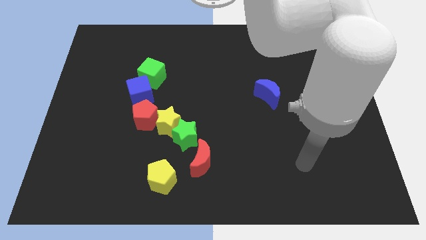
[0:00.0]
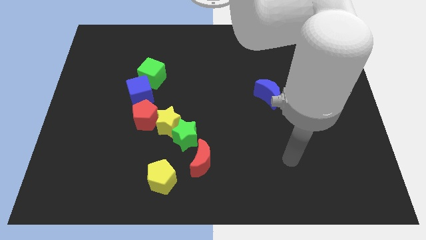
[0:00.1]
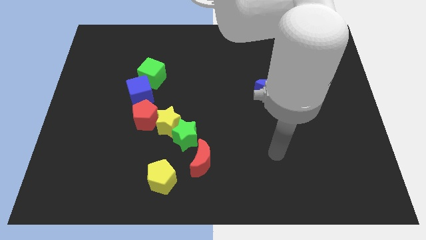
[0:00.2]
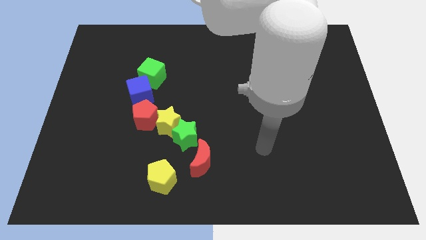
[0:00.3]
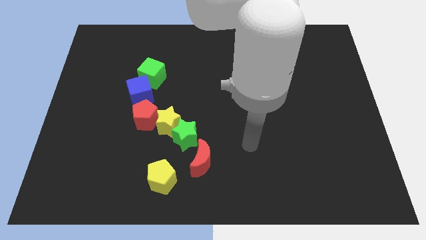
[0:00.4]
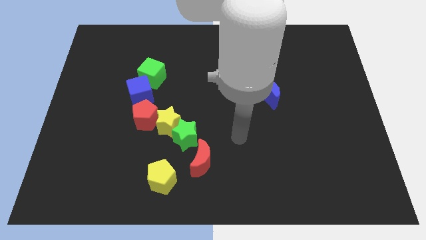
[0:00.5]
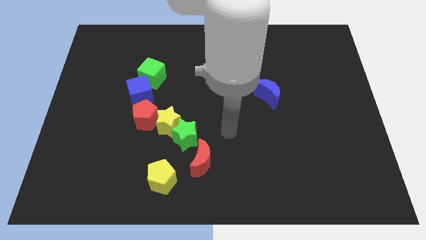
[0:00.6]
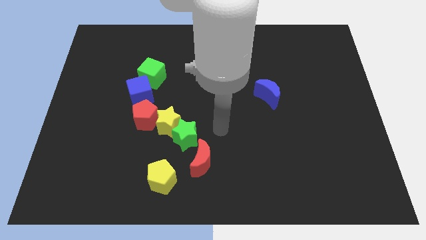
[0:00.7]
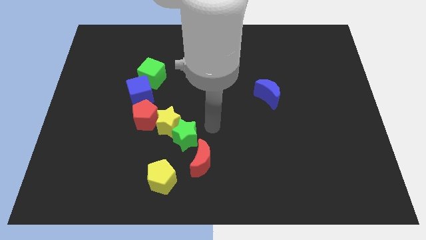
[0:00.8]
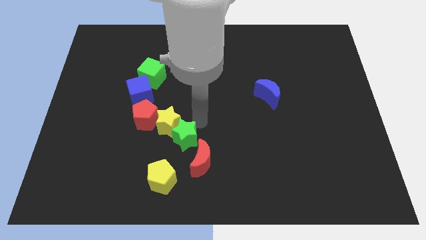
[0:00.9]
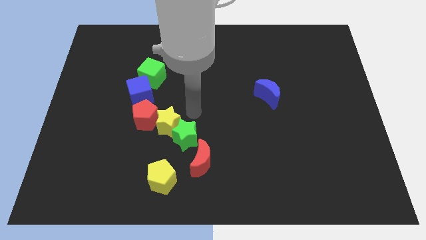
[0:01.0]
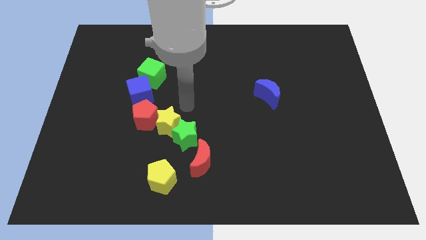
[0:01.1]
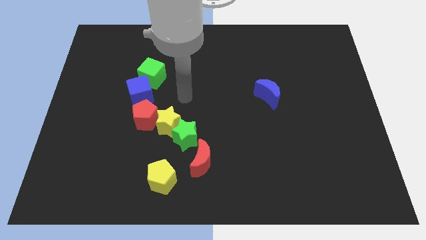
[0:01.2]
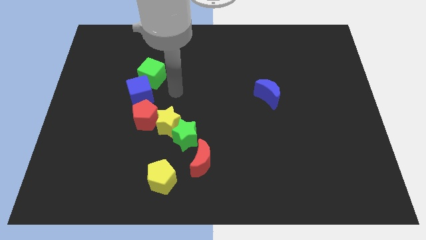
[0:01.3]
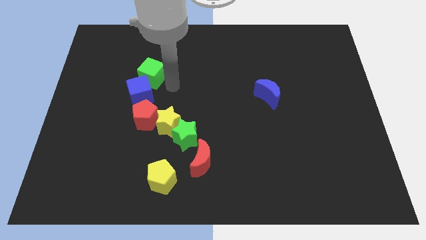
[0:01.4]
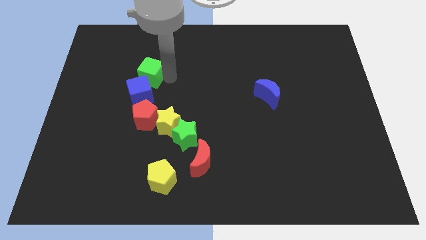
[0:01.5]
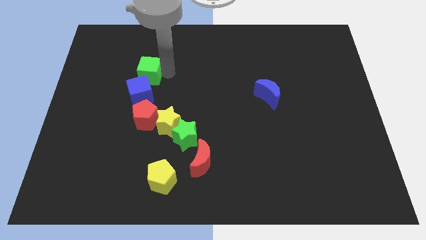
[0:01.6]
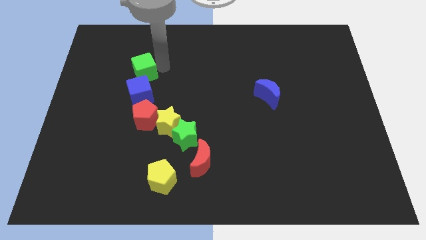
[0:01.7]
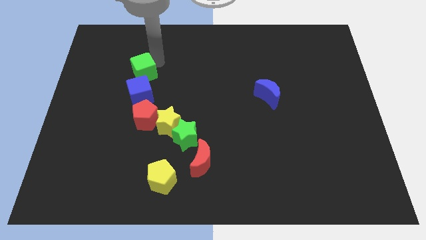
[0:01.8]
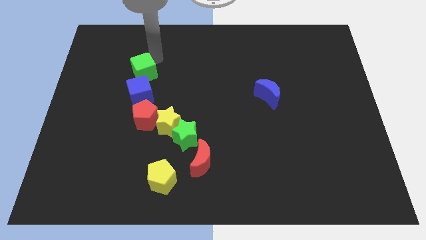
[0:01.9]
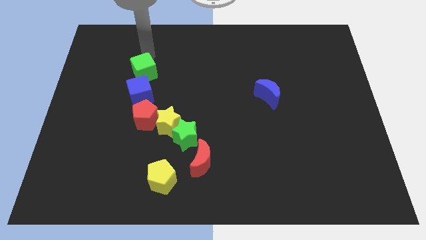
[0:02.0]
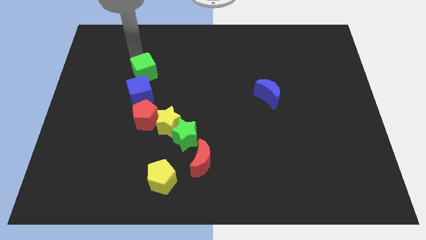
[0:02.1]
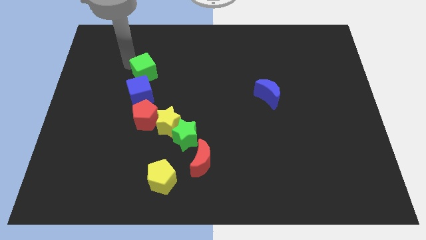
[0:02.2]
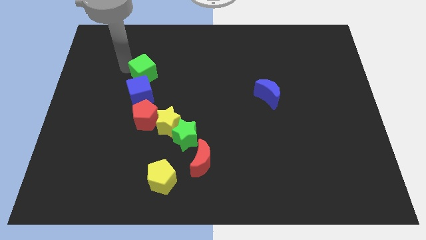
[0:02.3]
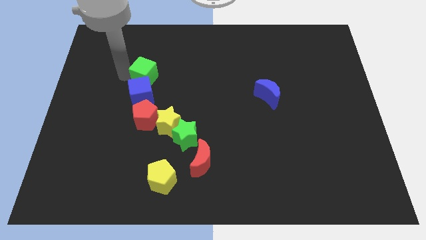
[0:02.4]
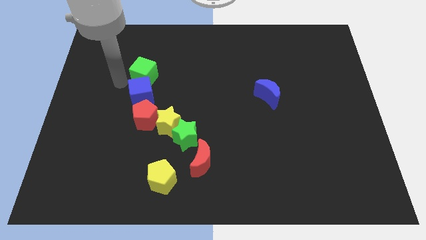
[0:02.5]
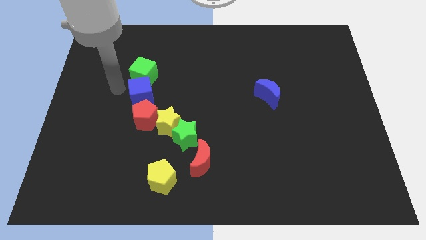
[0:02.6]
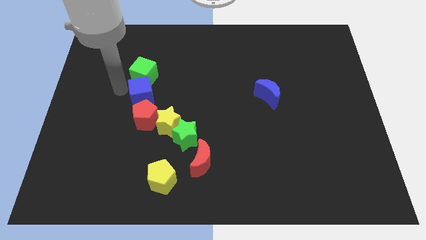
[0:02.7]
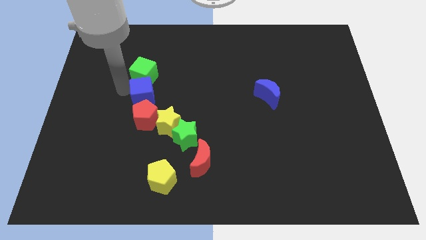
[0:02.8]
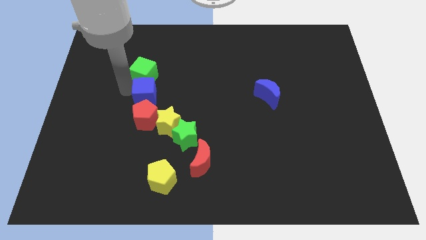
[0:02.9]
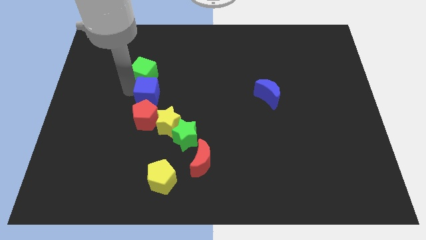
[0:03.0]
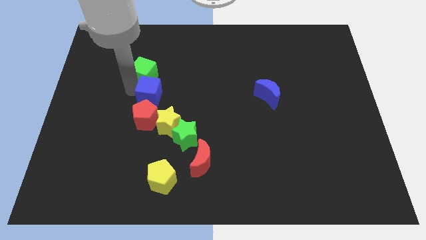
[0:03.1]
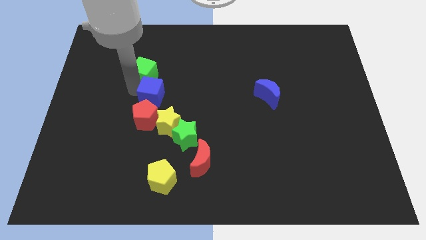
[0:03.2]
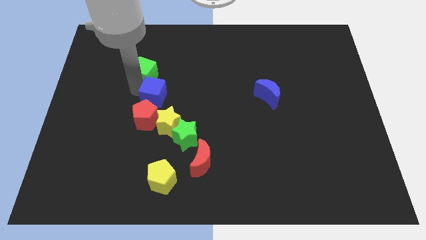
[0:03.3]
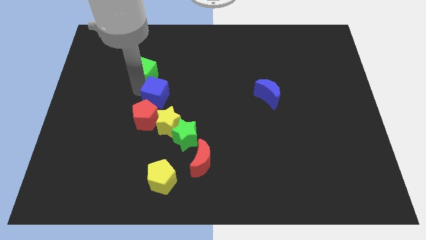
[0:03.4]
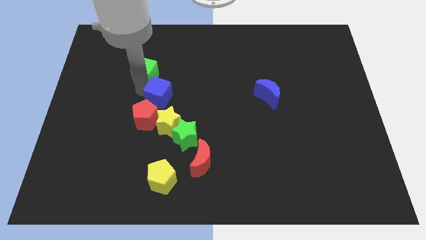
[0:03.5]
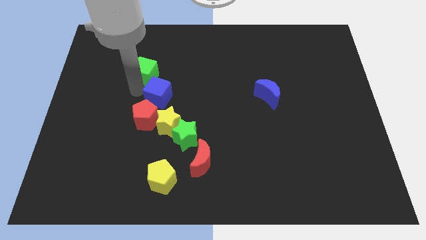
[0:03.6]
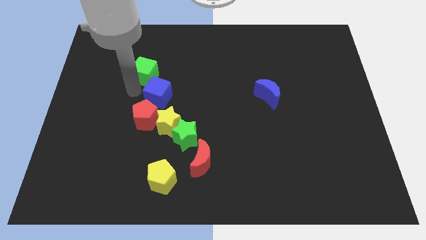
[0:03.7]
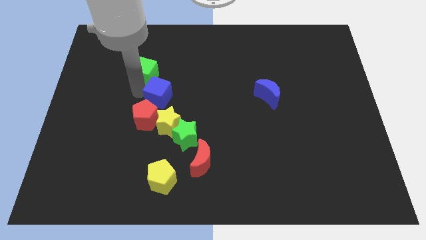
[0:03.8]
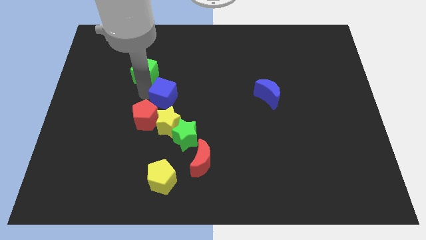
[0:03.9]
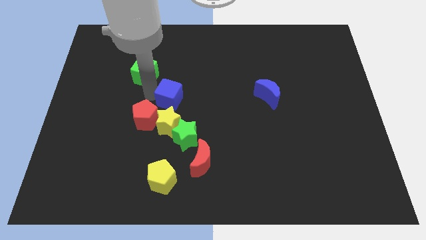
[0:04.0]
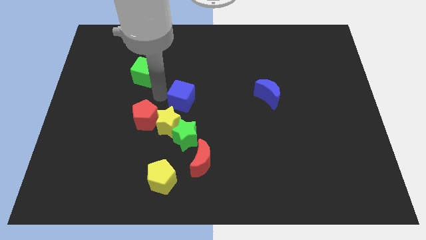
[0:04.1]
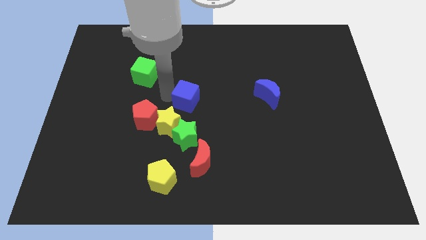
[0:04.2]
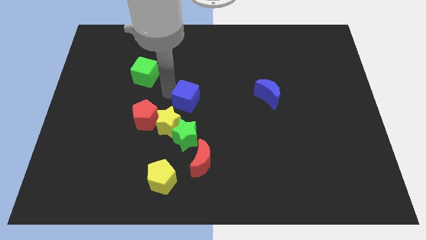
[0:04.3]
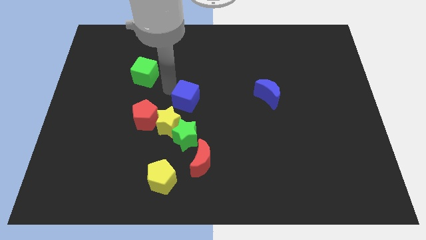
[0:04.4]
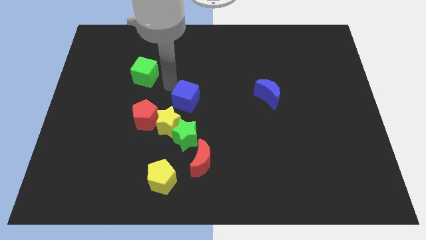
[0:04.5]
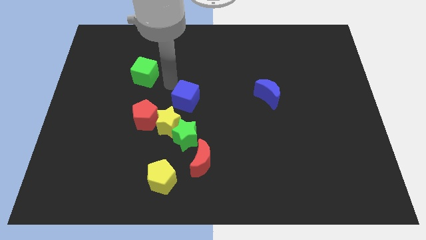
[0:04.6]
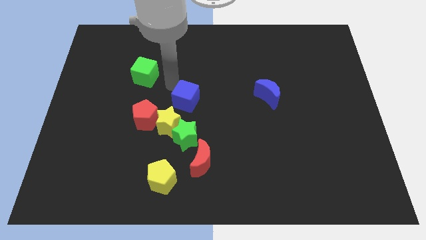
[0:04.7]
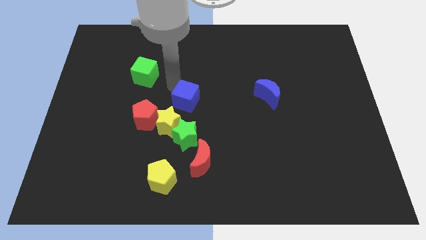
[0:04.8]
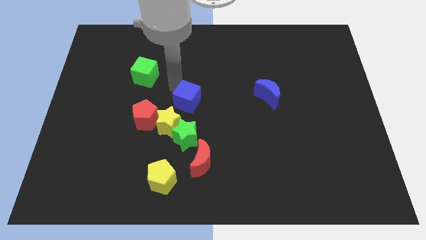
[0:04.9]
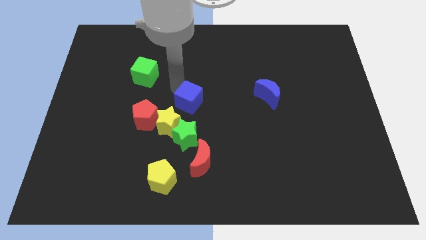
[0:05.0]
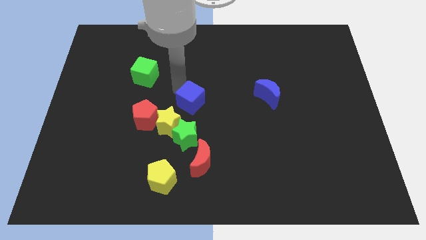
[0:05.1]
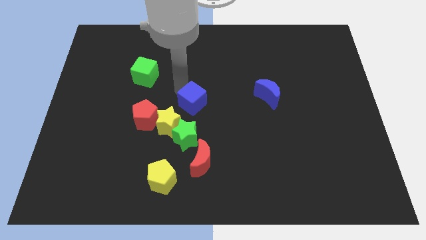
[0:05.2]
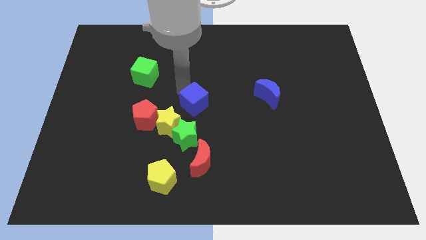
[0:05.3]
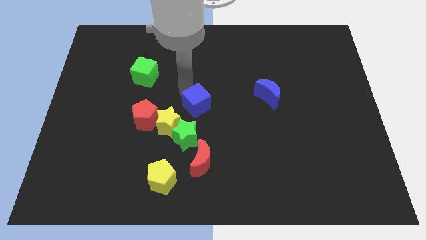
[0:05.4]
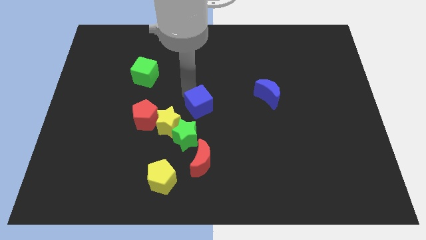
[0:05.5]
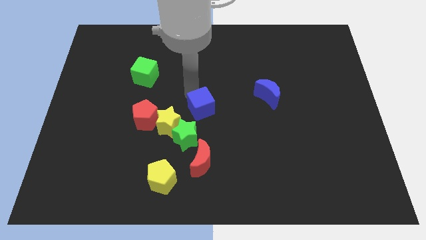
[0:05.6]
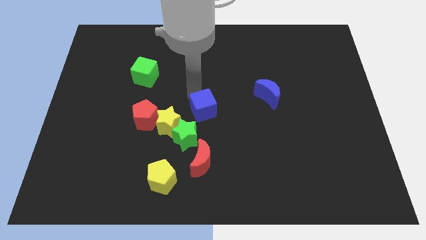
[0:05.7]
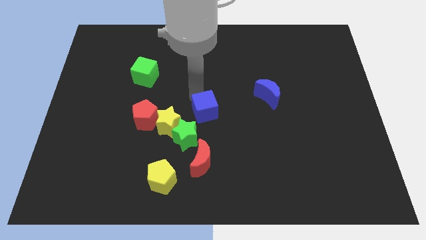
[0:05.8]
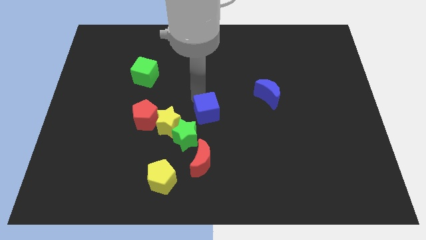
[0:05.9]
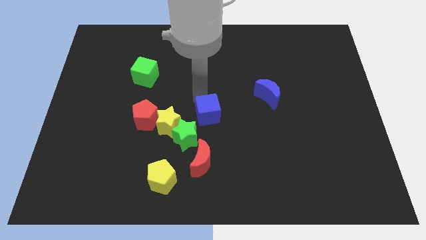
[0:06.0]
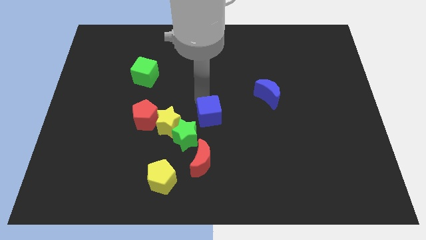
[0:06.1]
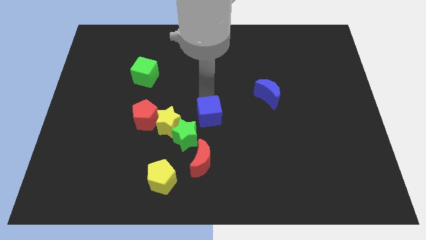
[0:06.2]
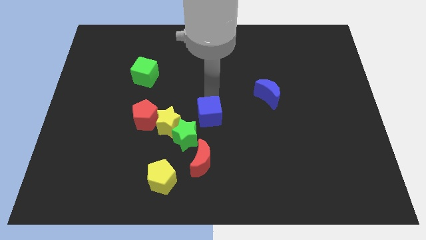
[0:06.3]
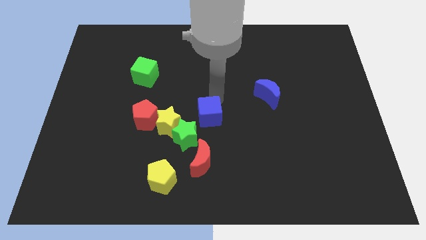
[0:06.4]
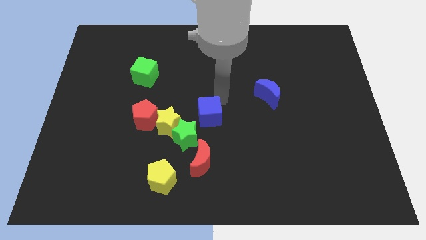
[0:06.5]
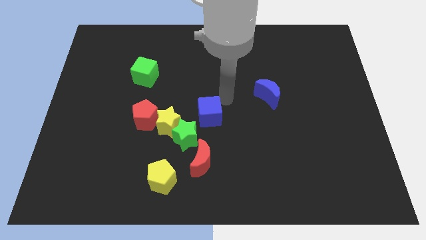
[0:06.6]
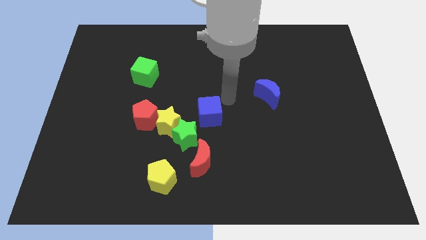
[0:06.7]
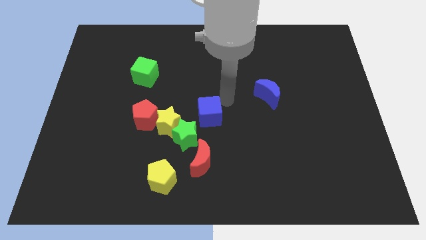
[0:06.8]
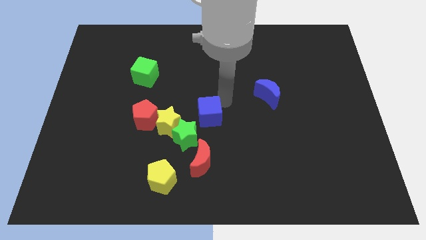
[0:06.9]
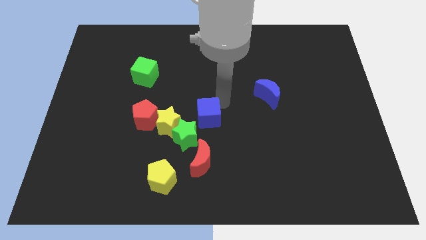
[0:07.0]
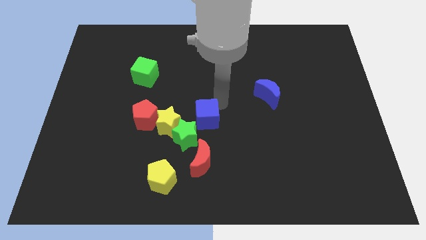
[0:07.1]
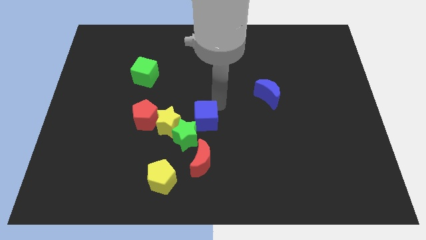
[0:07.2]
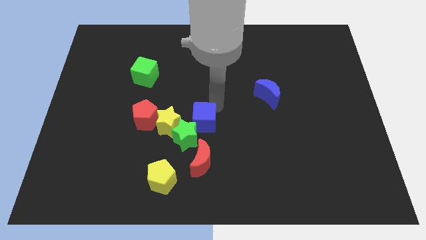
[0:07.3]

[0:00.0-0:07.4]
move the blue cube close to the green star
